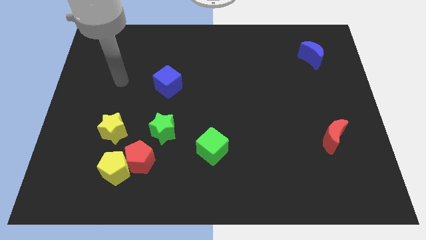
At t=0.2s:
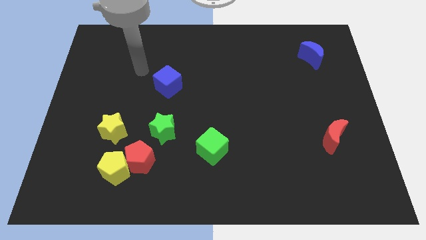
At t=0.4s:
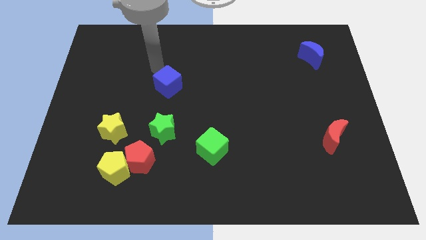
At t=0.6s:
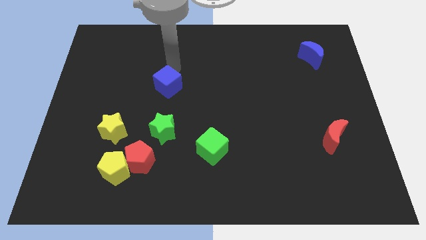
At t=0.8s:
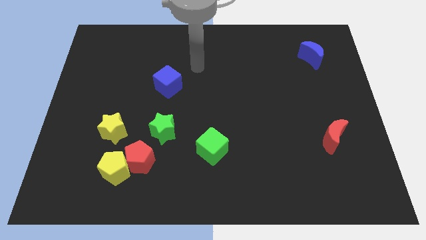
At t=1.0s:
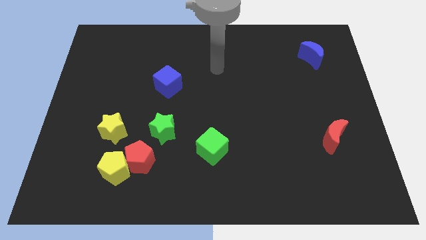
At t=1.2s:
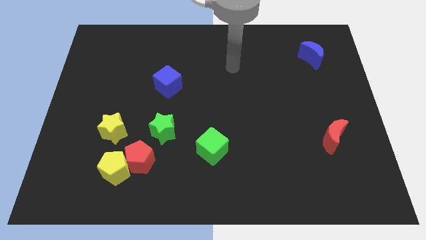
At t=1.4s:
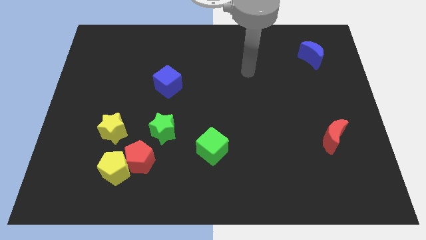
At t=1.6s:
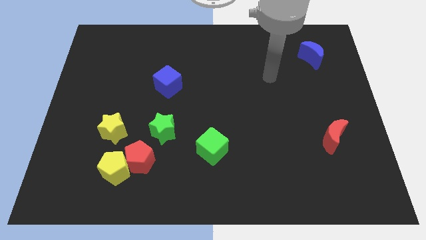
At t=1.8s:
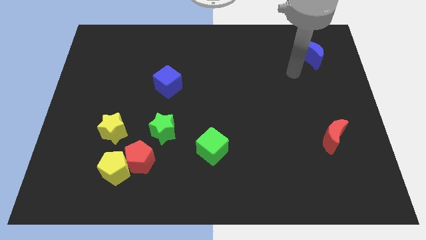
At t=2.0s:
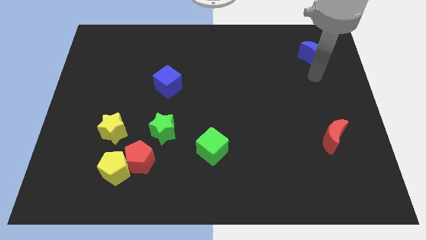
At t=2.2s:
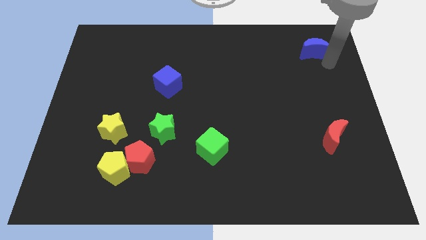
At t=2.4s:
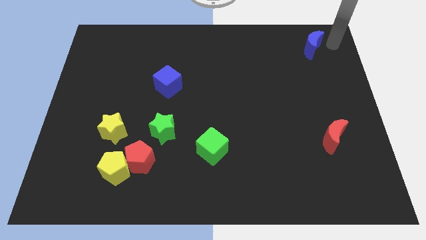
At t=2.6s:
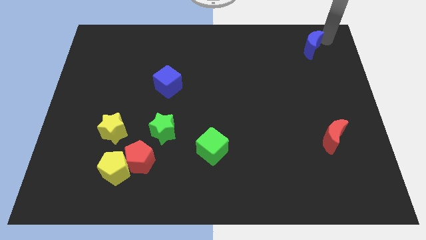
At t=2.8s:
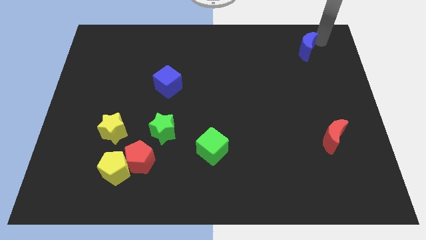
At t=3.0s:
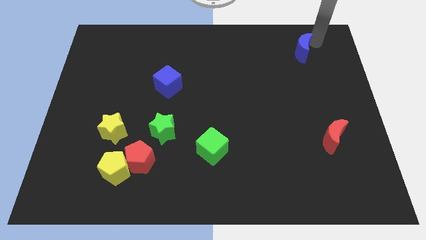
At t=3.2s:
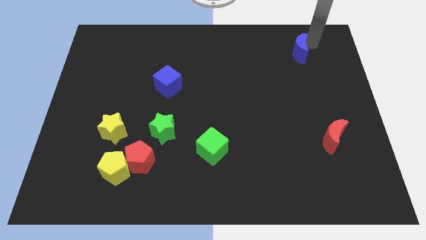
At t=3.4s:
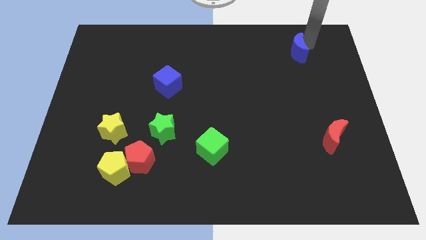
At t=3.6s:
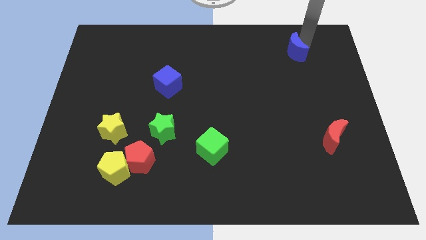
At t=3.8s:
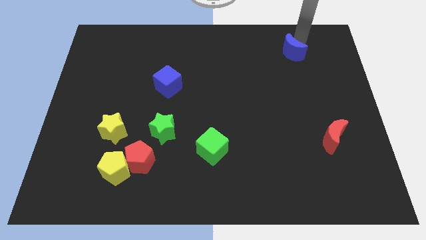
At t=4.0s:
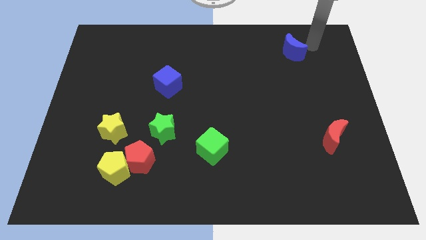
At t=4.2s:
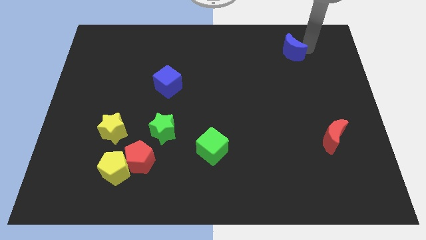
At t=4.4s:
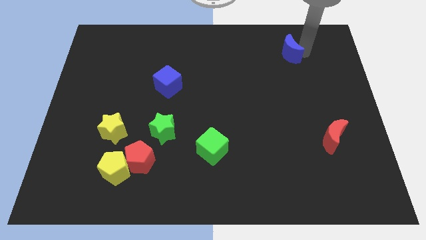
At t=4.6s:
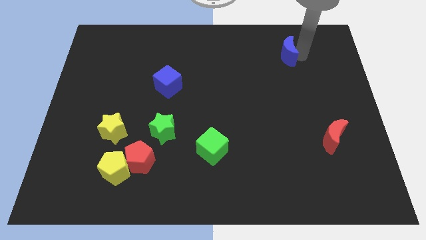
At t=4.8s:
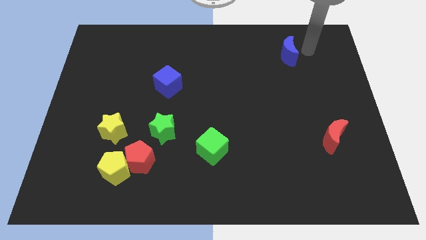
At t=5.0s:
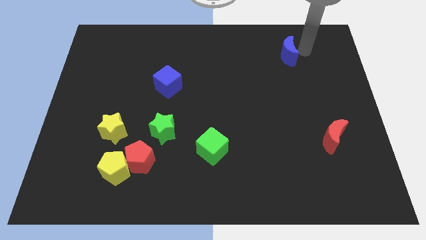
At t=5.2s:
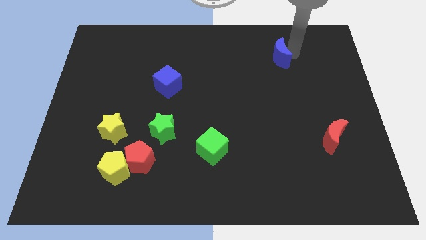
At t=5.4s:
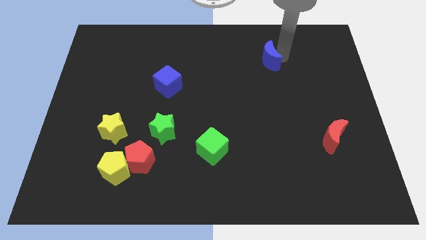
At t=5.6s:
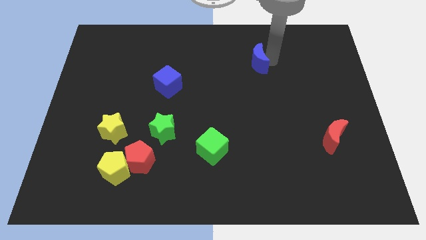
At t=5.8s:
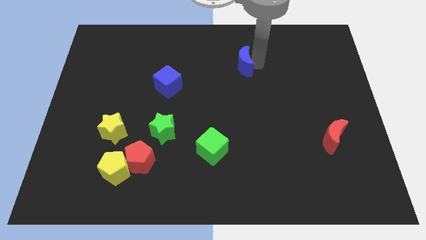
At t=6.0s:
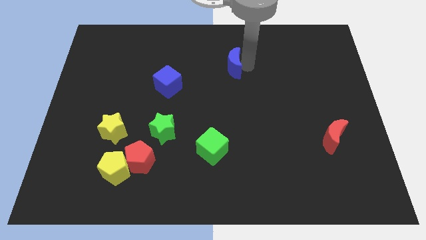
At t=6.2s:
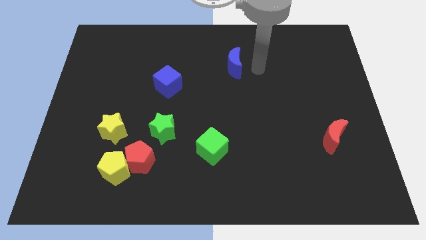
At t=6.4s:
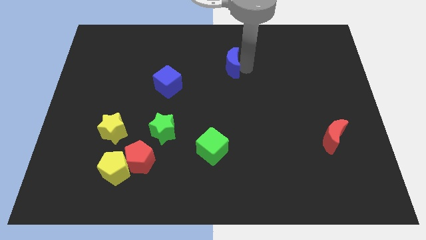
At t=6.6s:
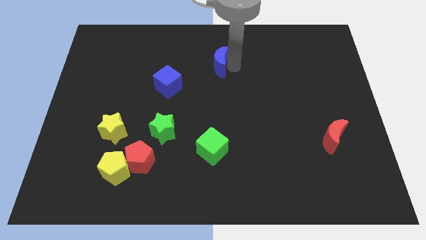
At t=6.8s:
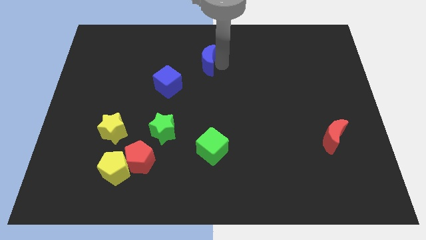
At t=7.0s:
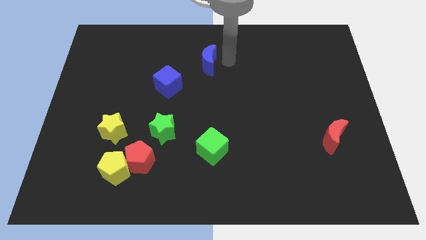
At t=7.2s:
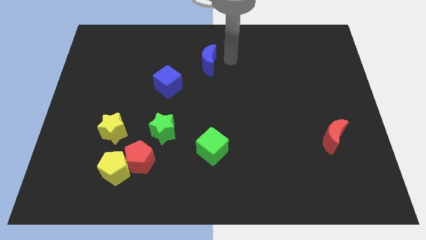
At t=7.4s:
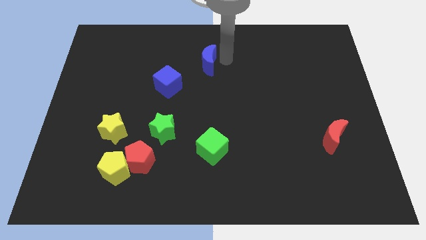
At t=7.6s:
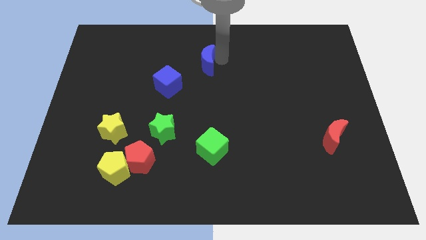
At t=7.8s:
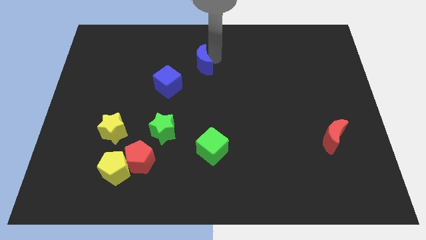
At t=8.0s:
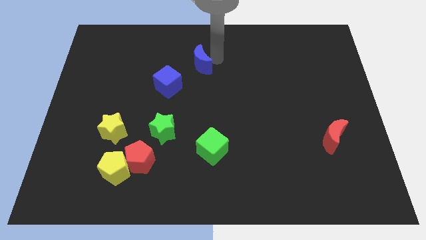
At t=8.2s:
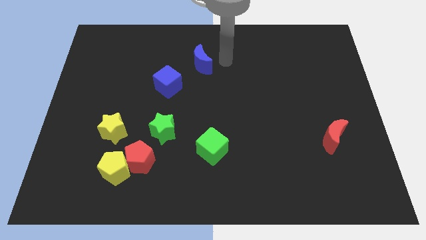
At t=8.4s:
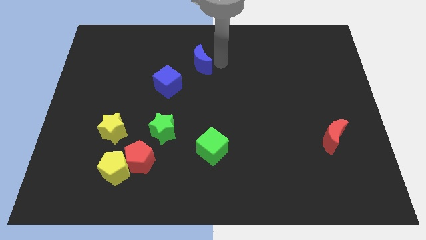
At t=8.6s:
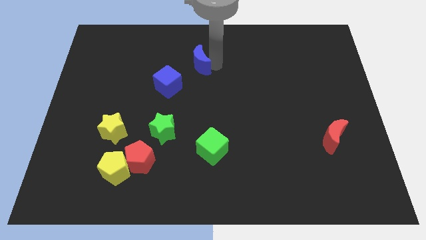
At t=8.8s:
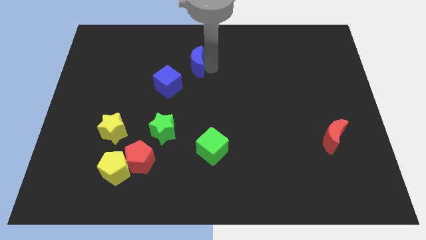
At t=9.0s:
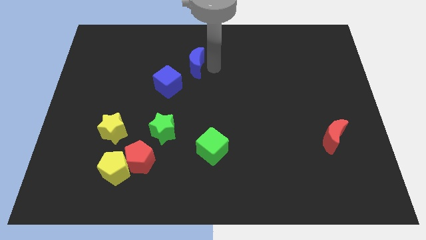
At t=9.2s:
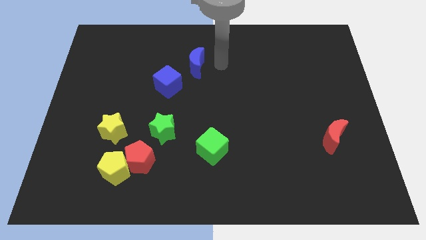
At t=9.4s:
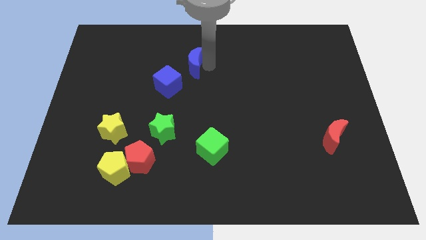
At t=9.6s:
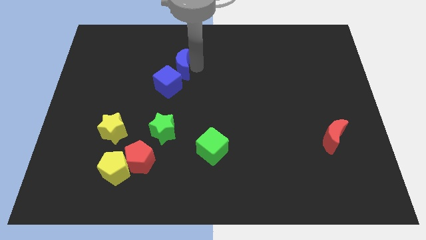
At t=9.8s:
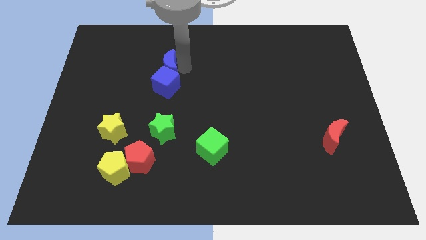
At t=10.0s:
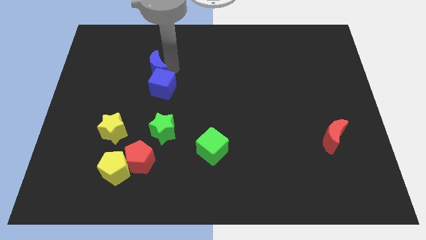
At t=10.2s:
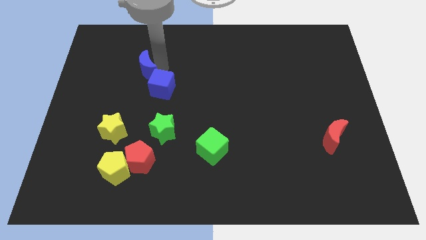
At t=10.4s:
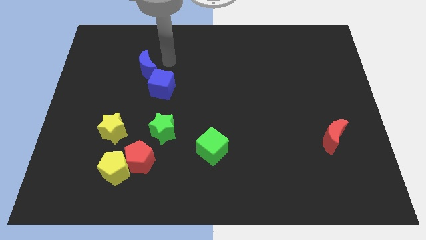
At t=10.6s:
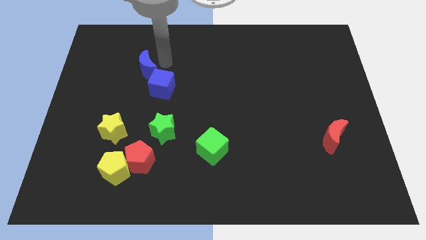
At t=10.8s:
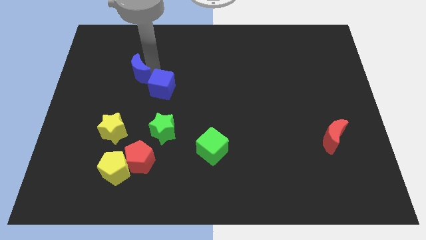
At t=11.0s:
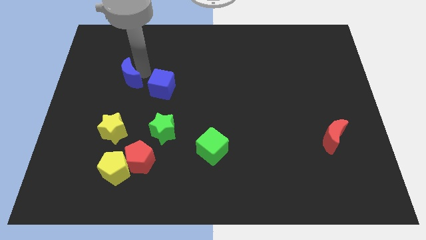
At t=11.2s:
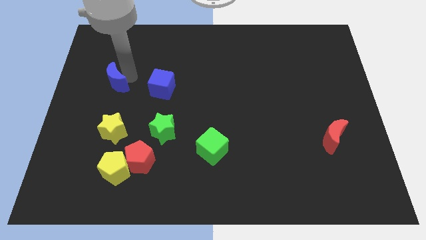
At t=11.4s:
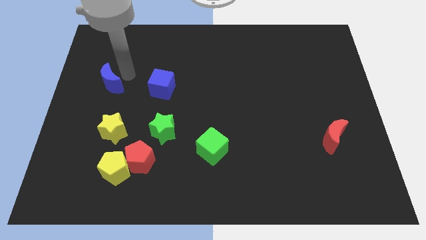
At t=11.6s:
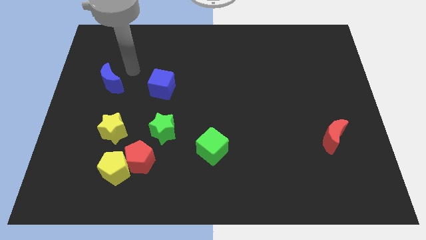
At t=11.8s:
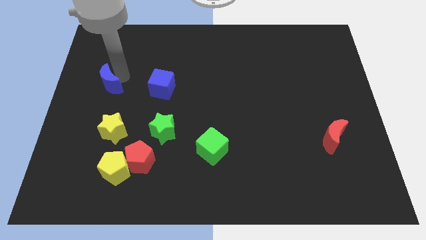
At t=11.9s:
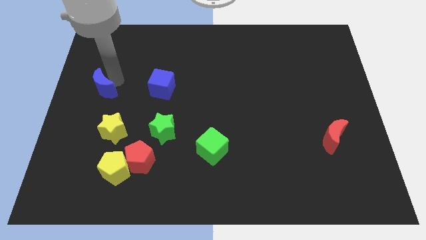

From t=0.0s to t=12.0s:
put the blue moon to the center left
